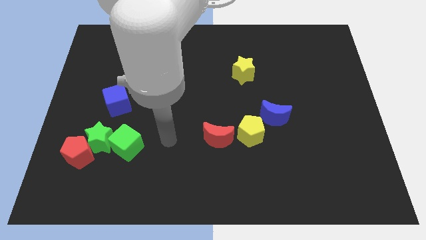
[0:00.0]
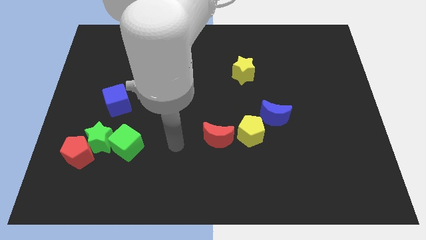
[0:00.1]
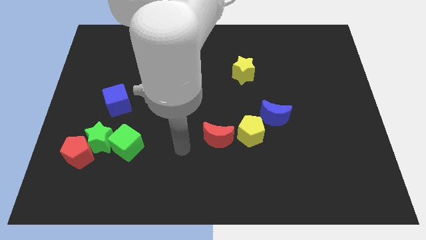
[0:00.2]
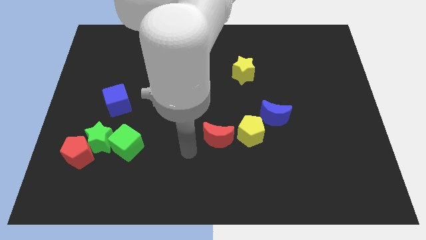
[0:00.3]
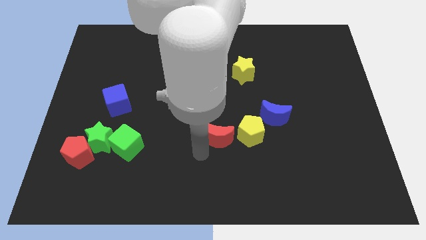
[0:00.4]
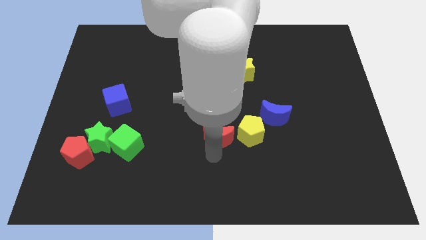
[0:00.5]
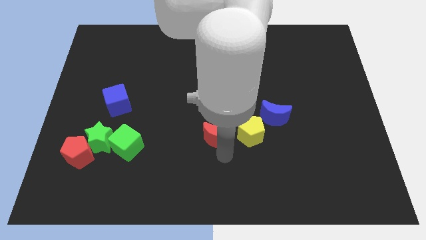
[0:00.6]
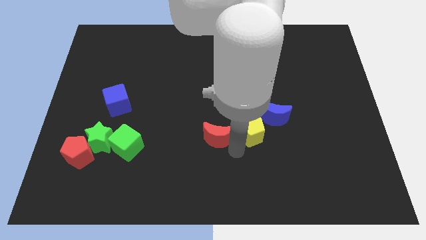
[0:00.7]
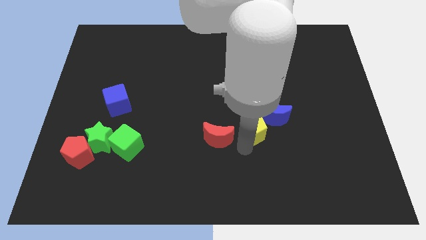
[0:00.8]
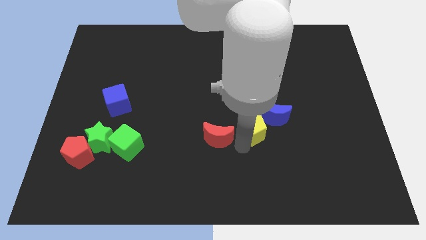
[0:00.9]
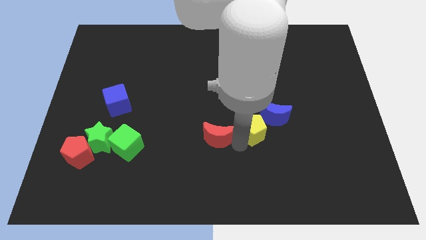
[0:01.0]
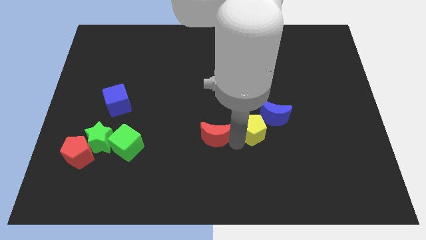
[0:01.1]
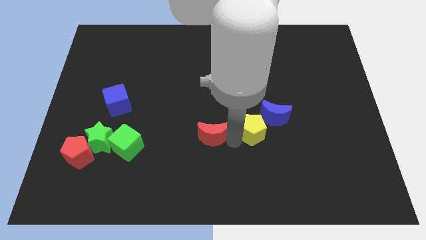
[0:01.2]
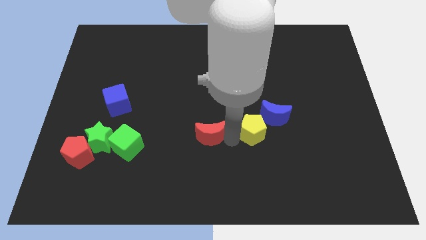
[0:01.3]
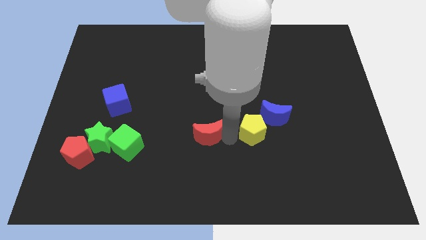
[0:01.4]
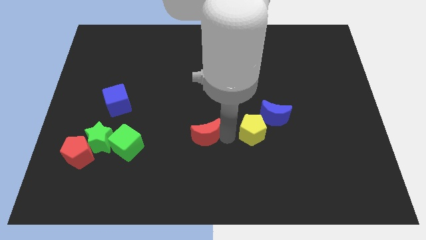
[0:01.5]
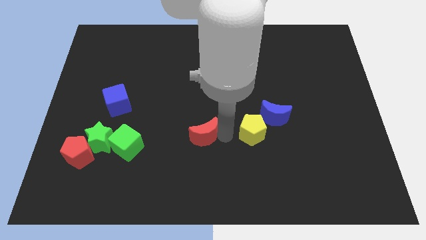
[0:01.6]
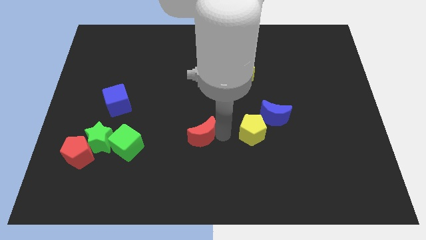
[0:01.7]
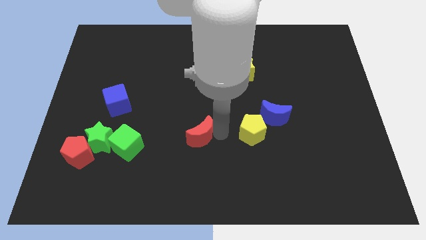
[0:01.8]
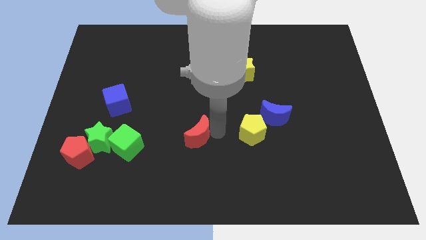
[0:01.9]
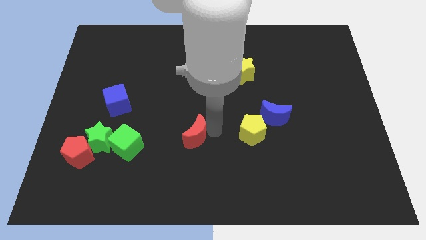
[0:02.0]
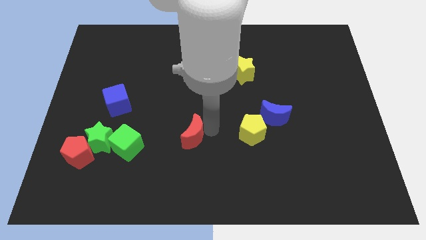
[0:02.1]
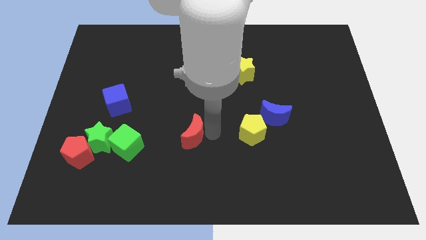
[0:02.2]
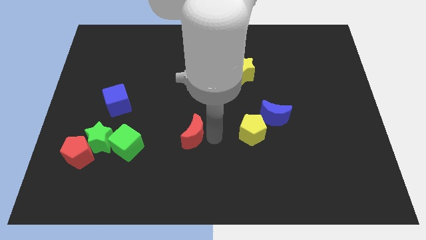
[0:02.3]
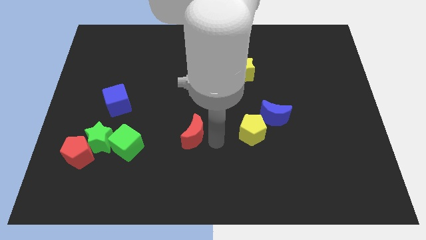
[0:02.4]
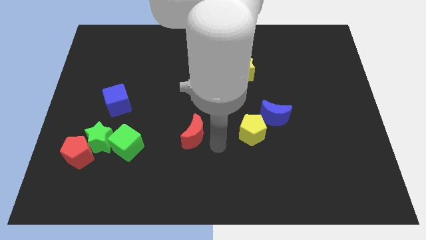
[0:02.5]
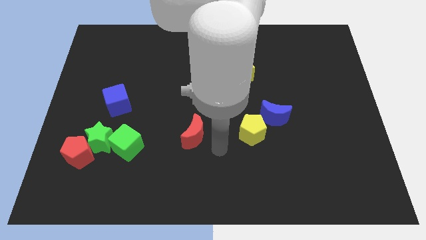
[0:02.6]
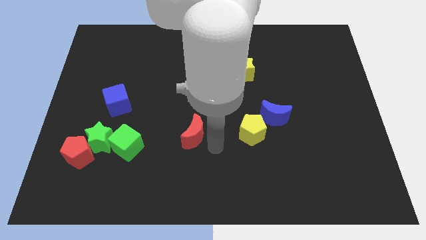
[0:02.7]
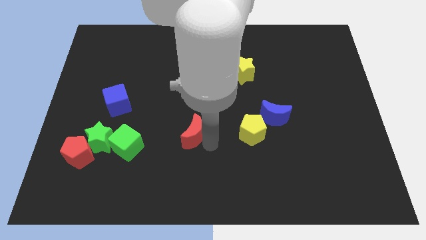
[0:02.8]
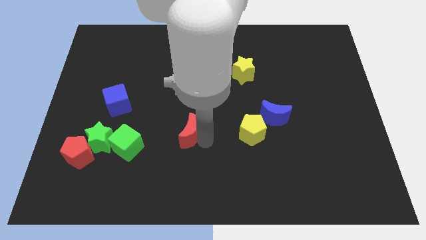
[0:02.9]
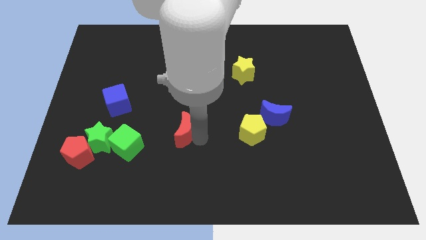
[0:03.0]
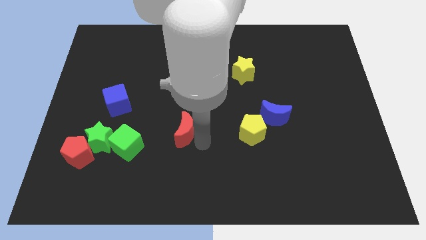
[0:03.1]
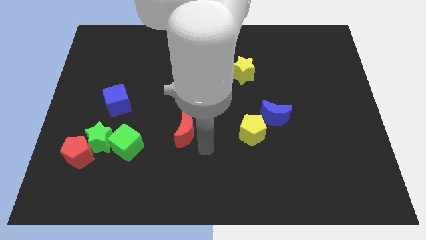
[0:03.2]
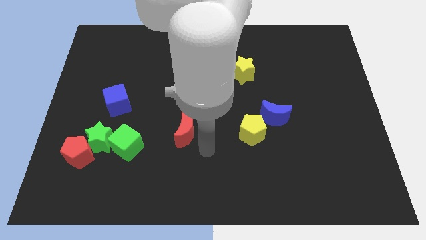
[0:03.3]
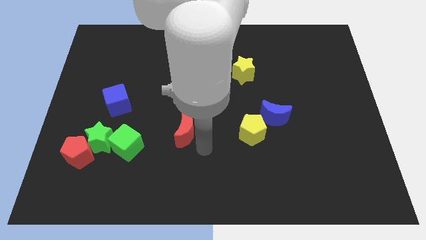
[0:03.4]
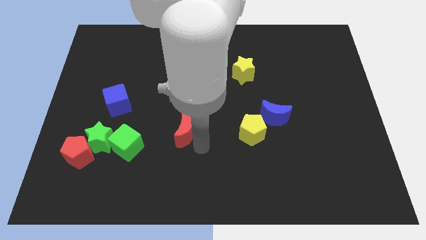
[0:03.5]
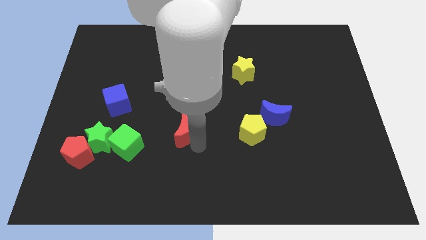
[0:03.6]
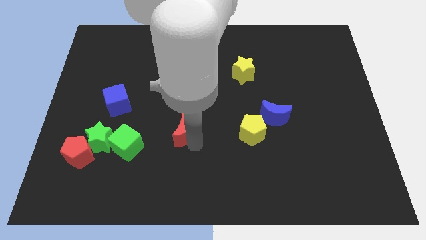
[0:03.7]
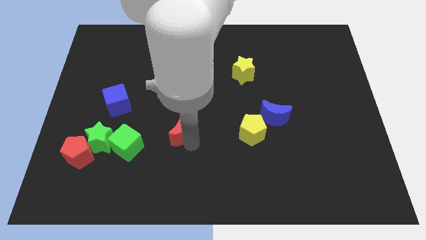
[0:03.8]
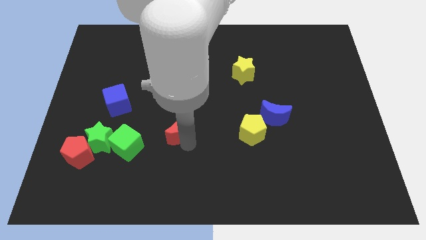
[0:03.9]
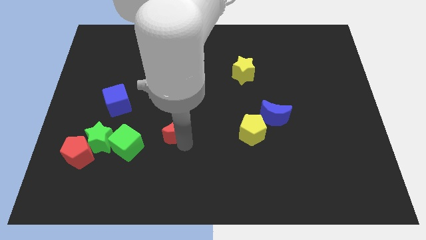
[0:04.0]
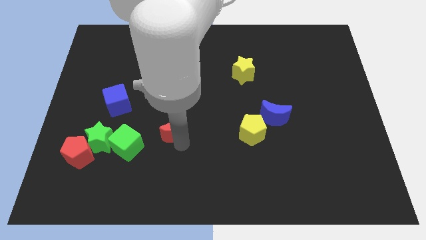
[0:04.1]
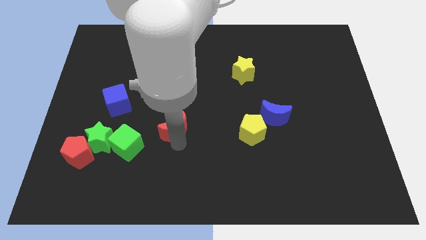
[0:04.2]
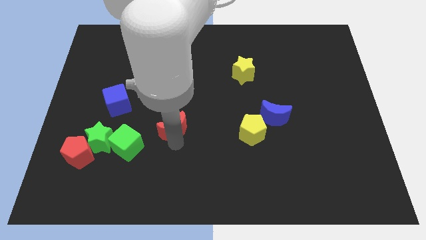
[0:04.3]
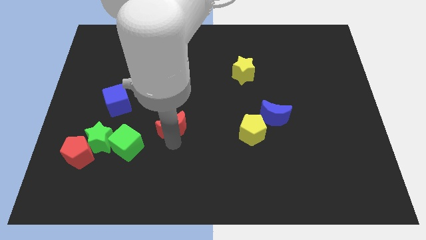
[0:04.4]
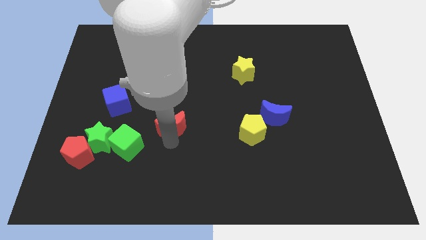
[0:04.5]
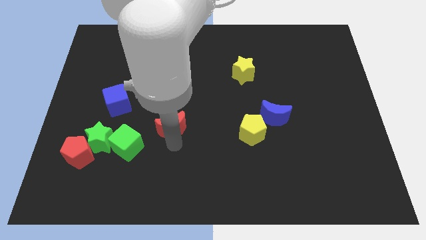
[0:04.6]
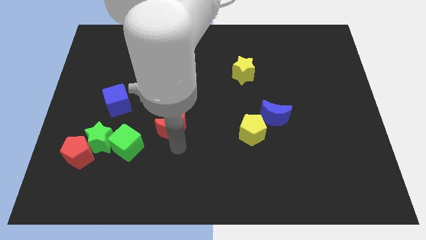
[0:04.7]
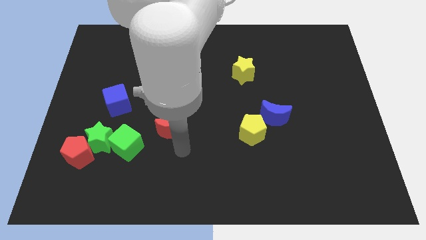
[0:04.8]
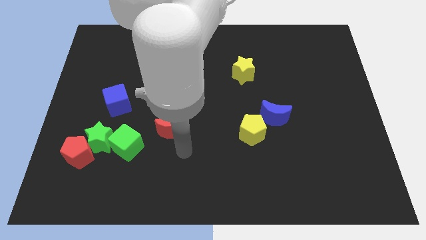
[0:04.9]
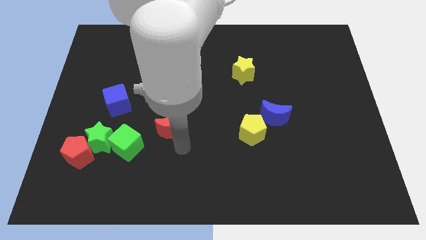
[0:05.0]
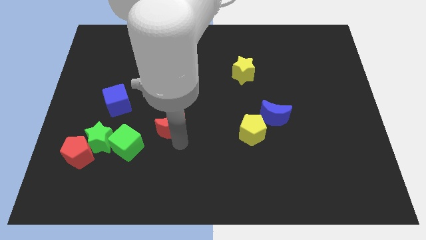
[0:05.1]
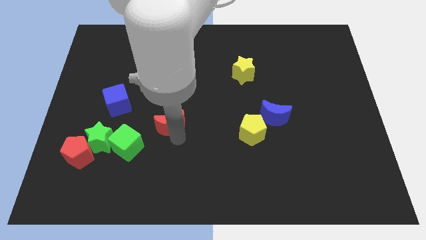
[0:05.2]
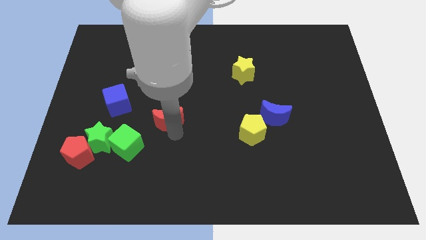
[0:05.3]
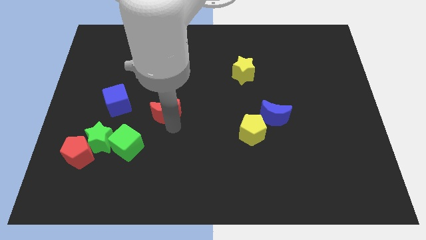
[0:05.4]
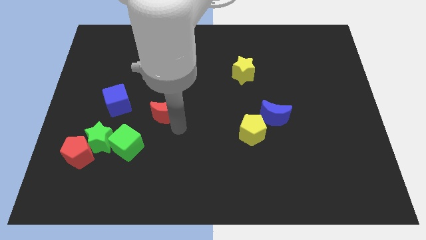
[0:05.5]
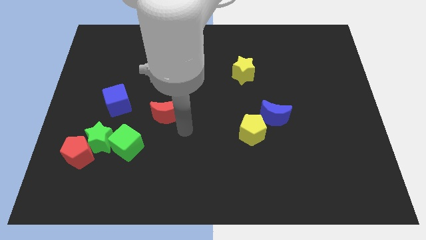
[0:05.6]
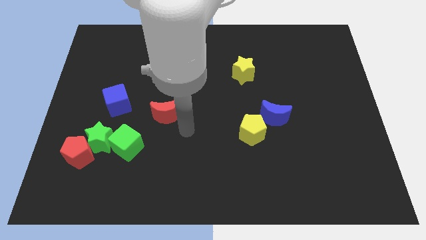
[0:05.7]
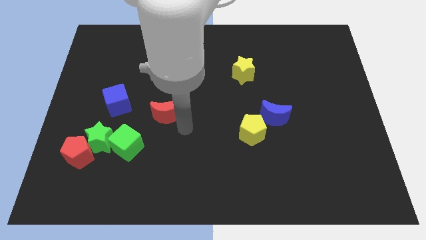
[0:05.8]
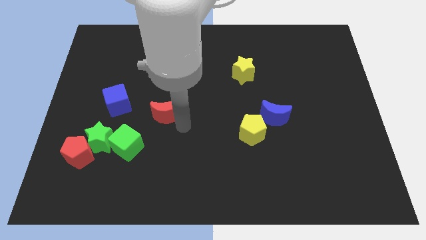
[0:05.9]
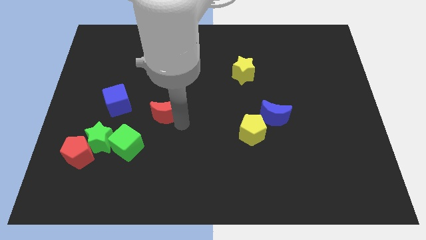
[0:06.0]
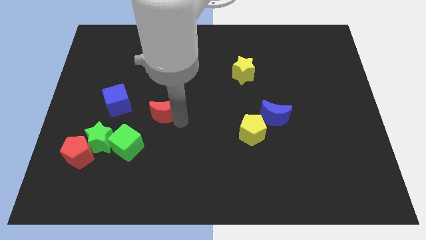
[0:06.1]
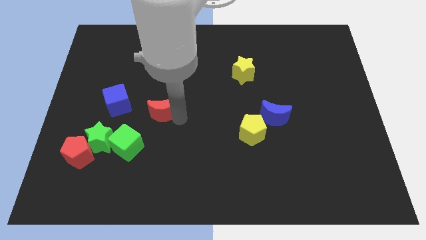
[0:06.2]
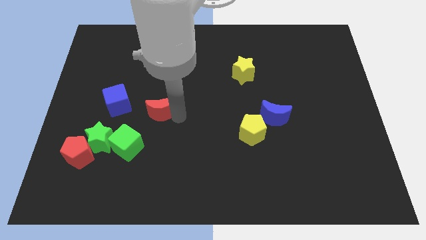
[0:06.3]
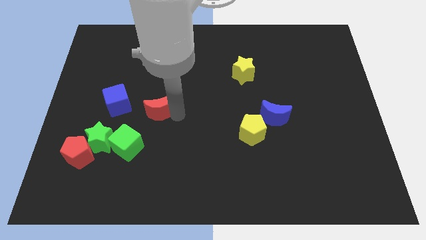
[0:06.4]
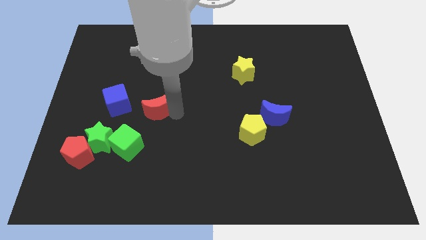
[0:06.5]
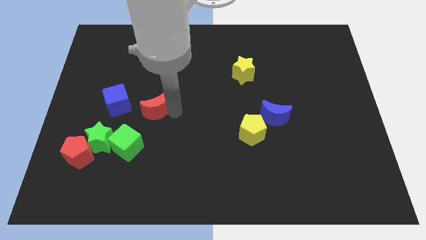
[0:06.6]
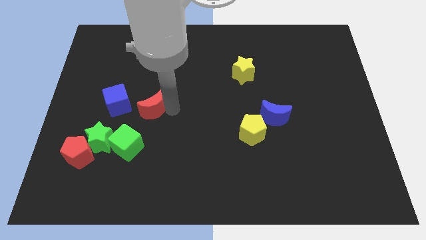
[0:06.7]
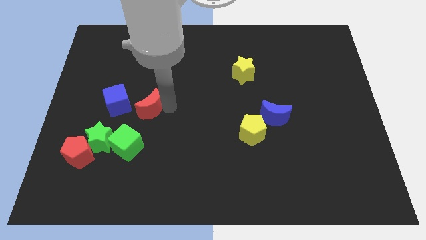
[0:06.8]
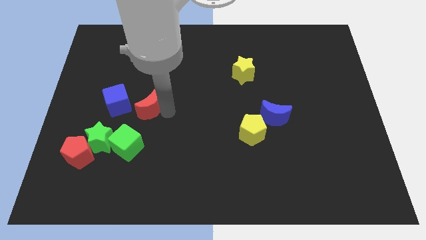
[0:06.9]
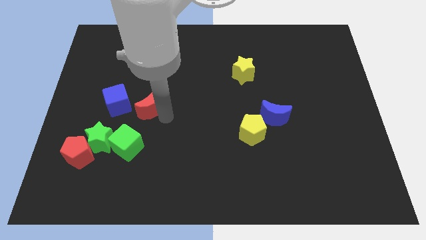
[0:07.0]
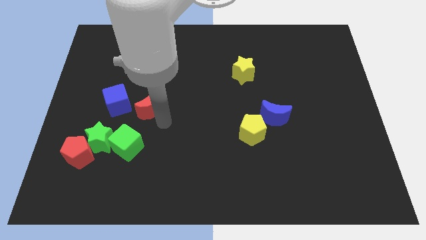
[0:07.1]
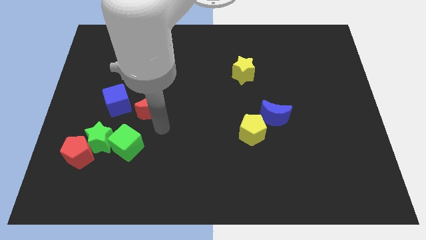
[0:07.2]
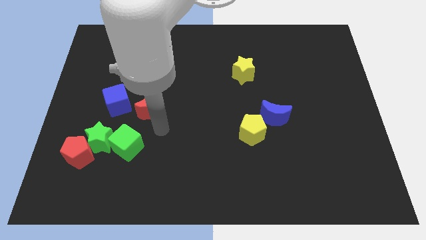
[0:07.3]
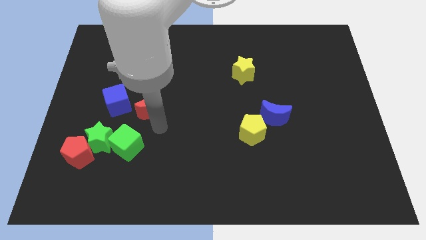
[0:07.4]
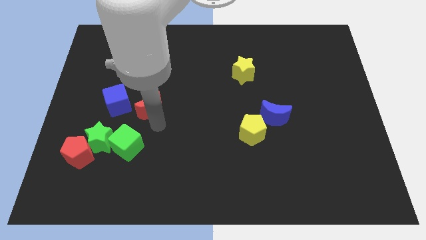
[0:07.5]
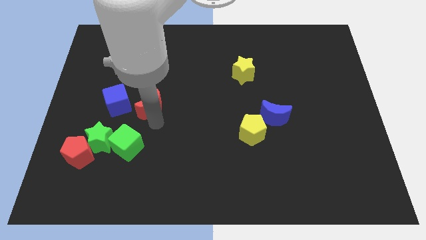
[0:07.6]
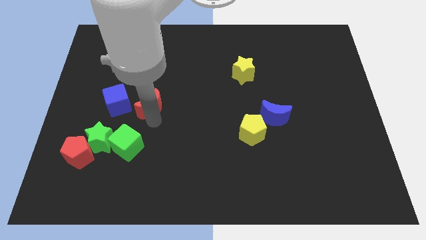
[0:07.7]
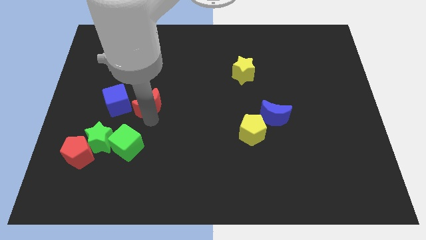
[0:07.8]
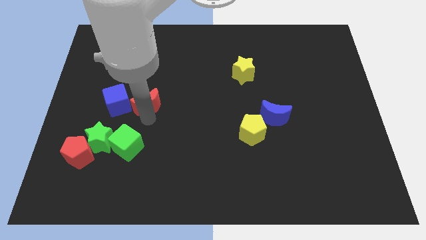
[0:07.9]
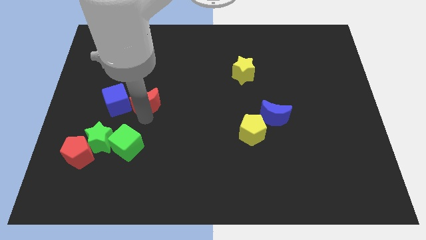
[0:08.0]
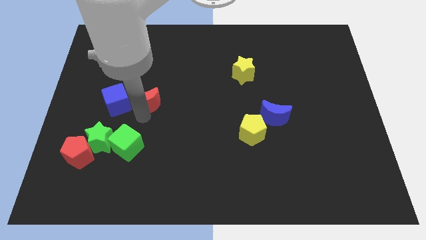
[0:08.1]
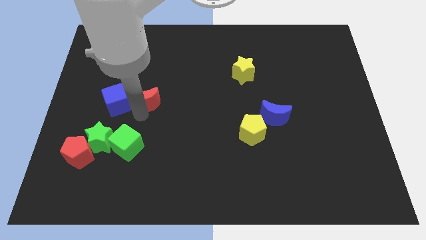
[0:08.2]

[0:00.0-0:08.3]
put the red moon to the top right side of the blue cube
